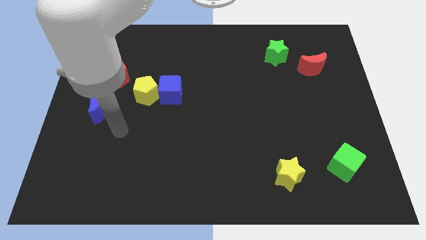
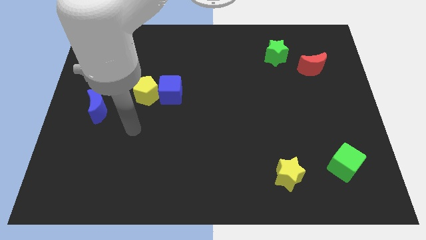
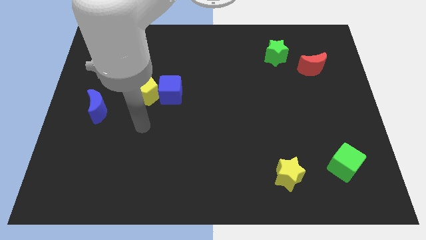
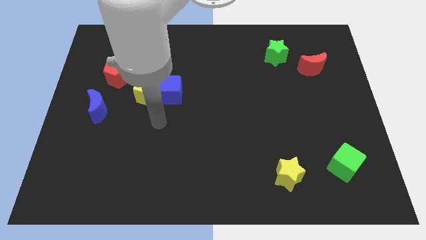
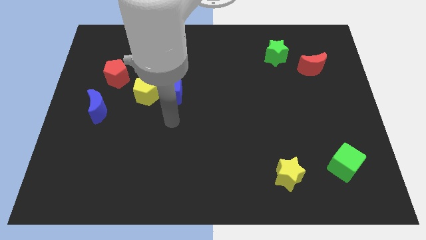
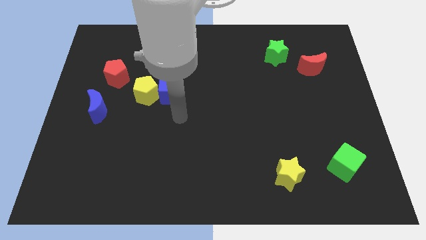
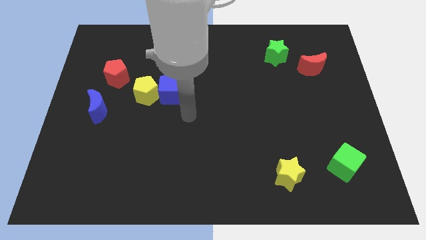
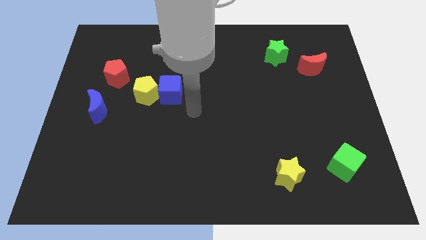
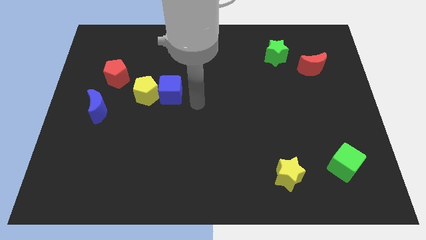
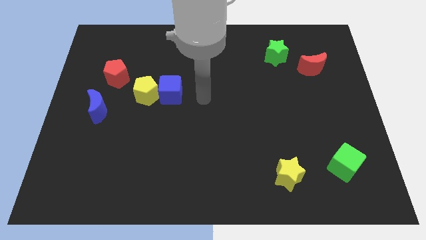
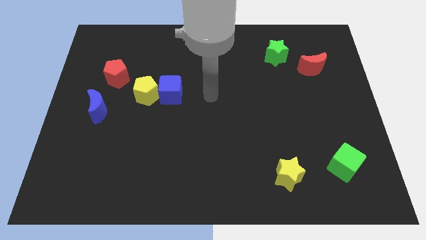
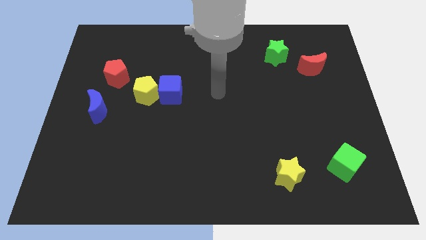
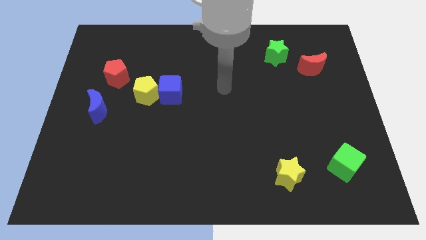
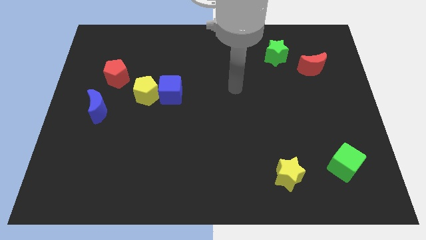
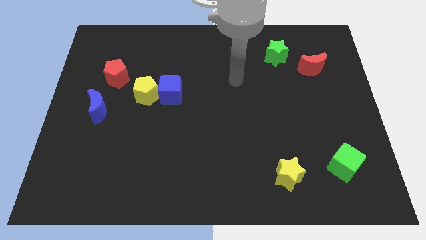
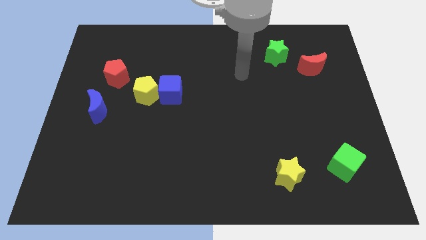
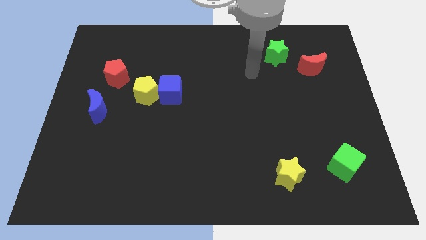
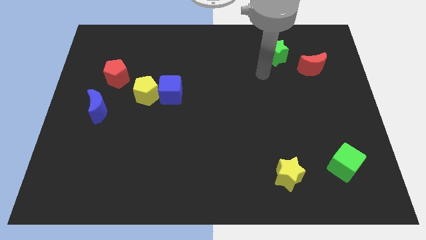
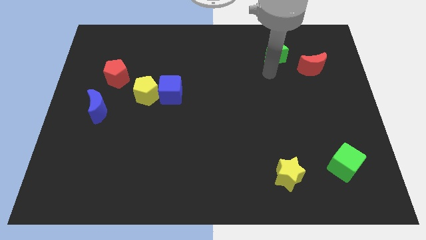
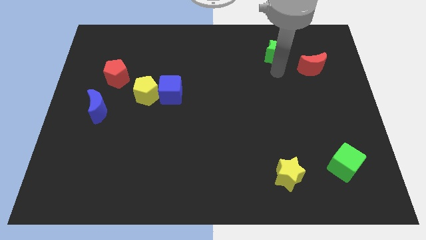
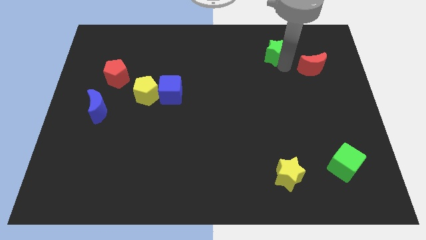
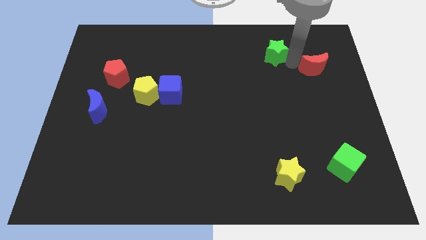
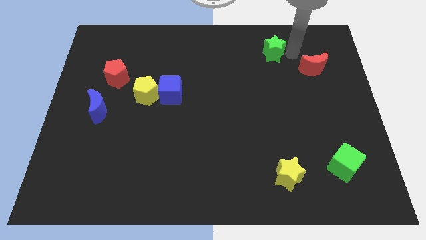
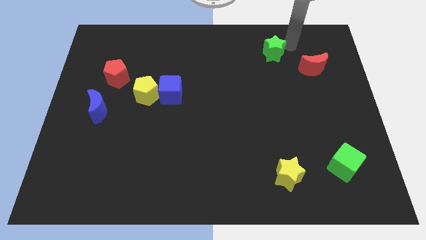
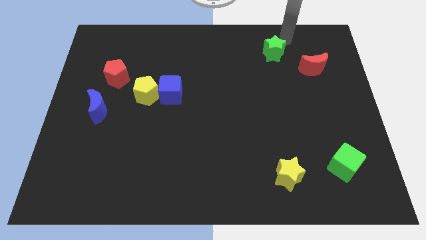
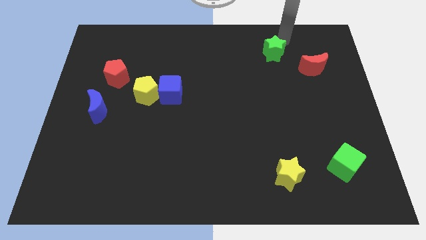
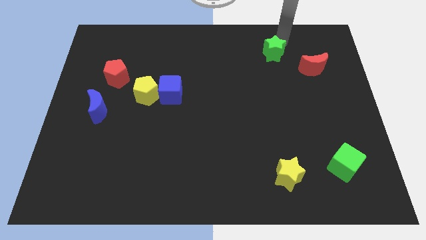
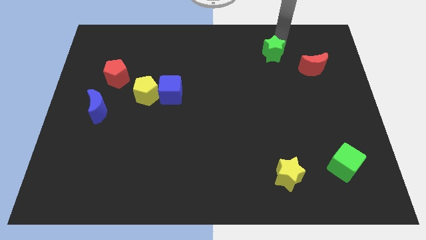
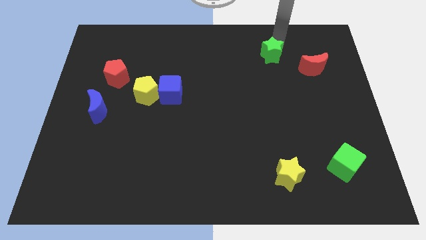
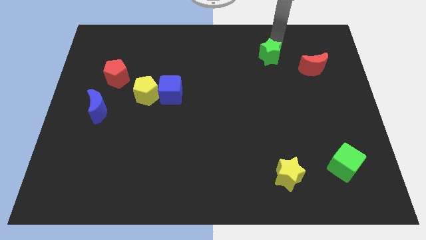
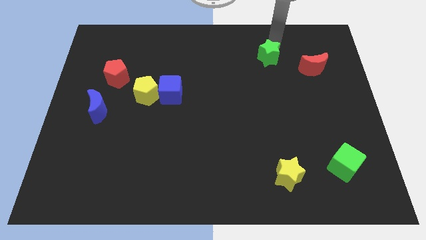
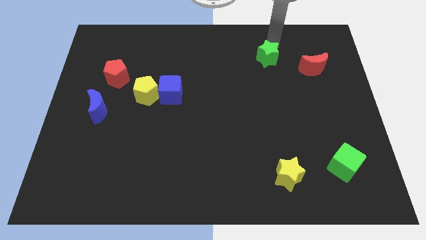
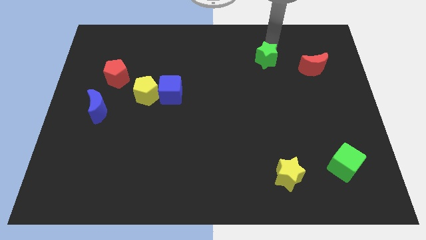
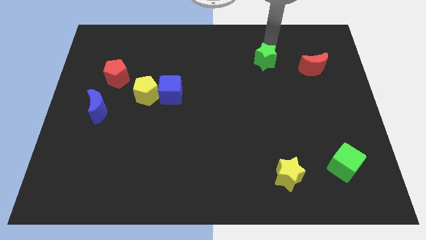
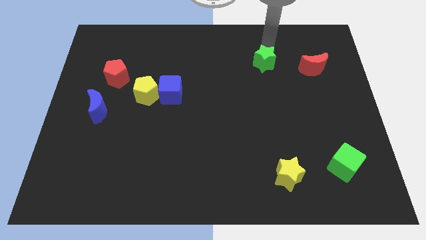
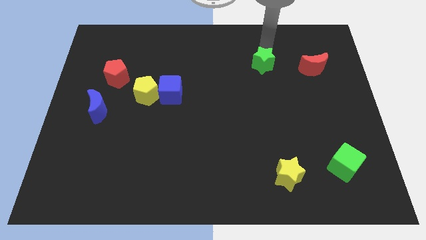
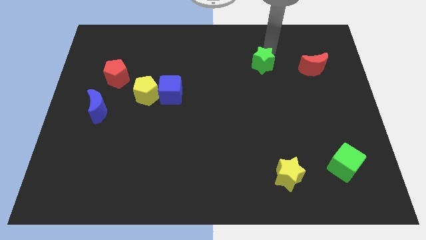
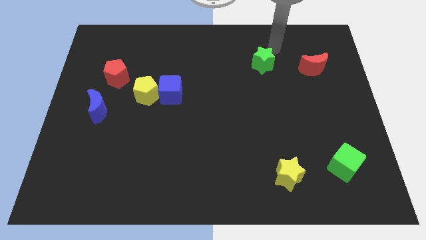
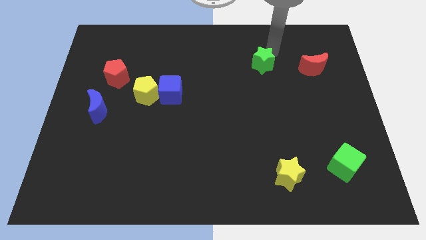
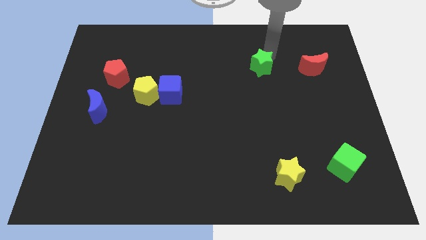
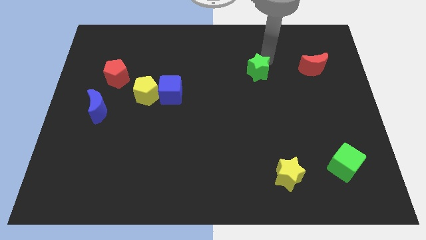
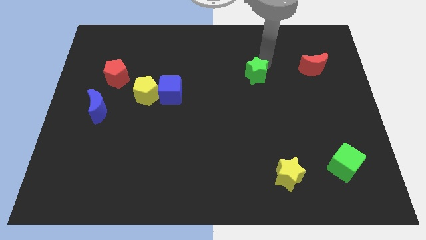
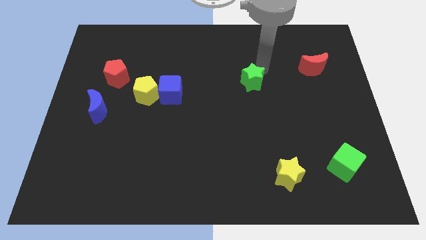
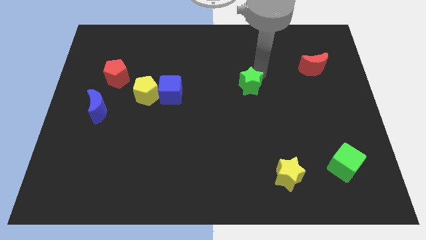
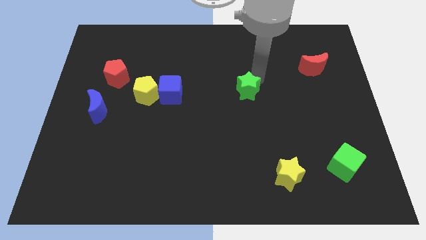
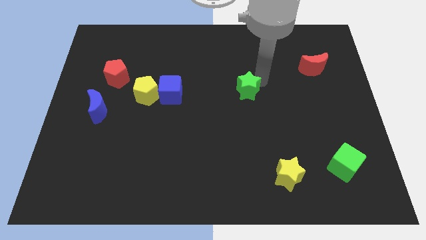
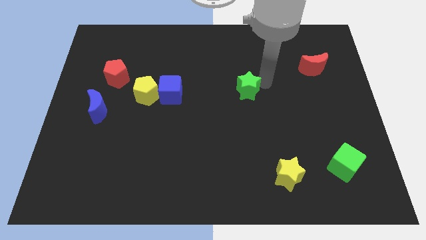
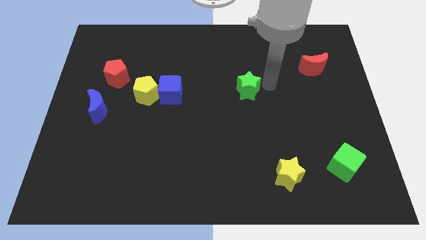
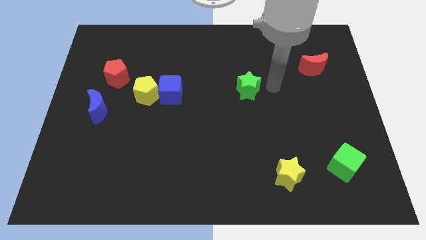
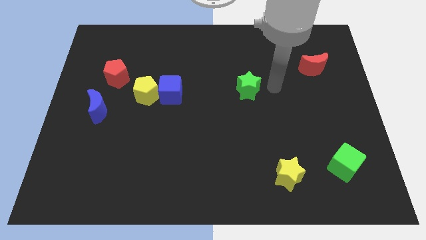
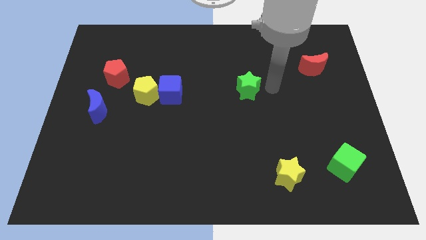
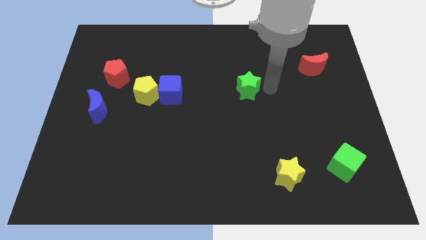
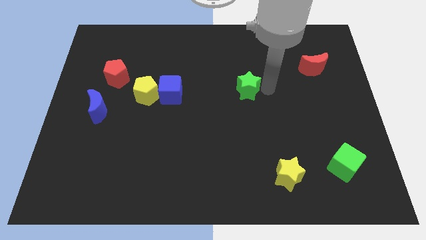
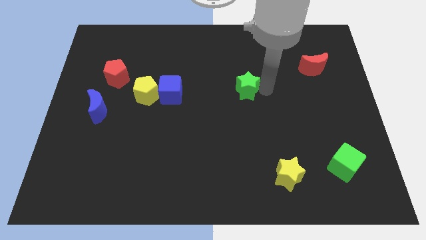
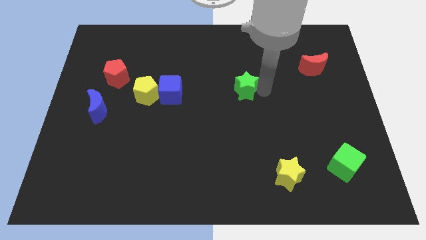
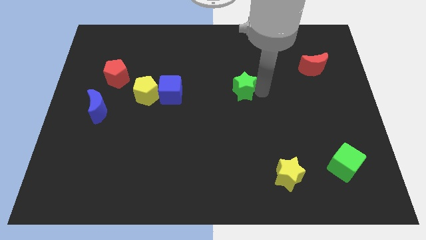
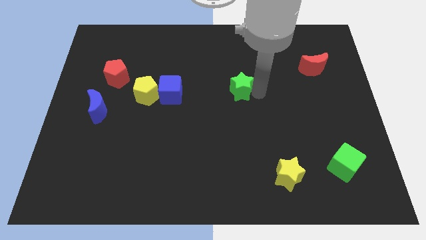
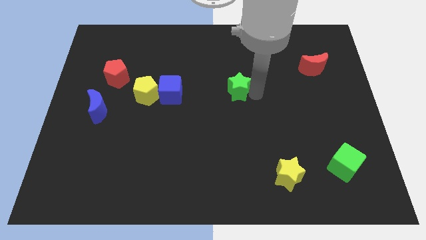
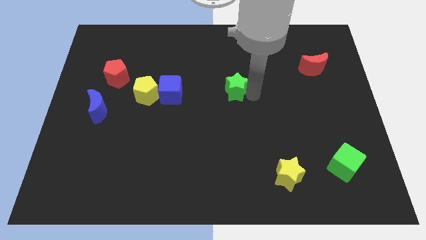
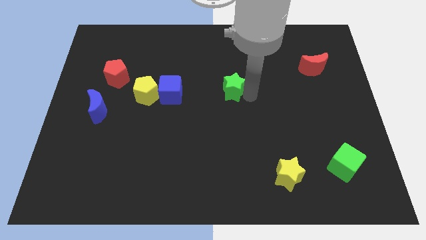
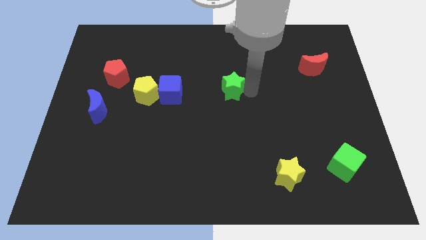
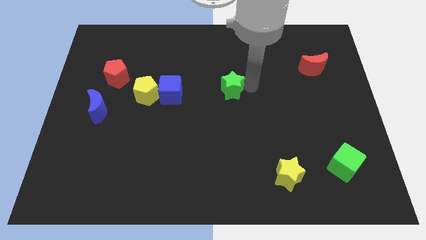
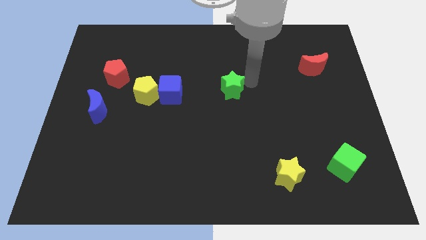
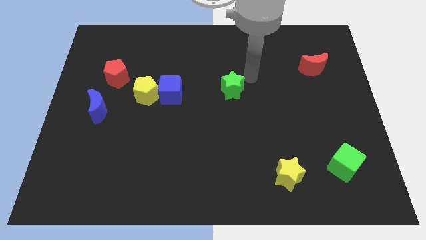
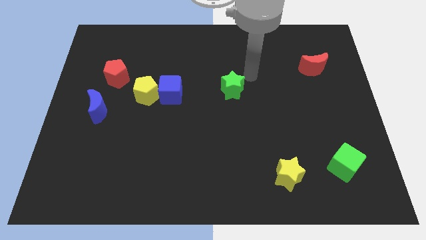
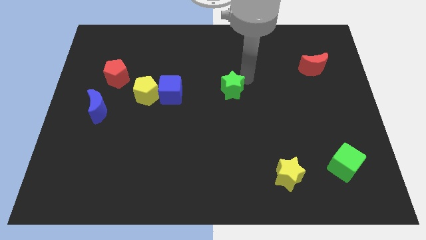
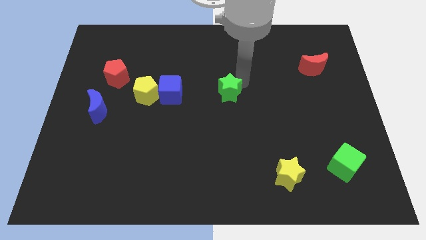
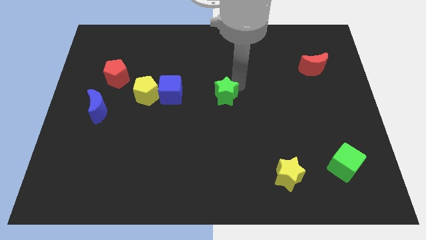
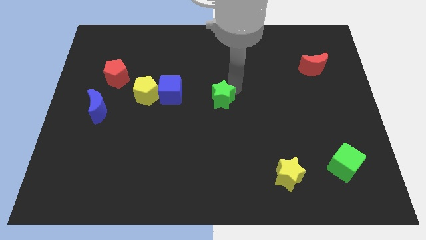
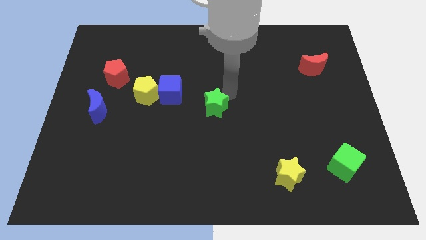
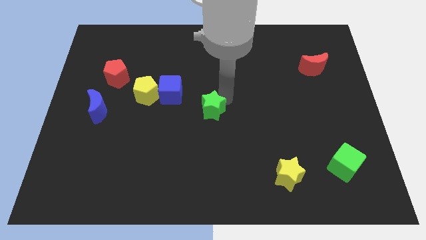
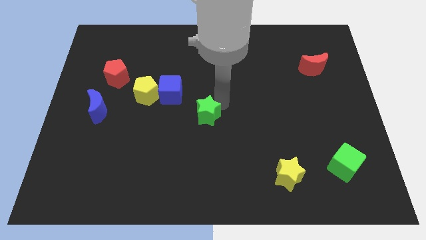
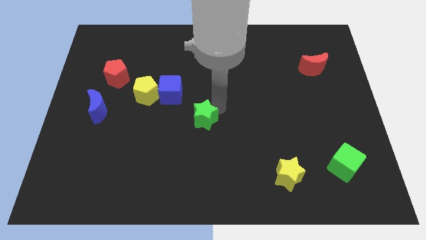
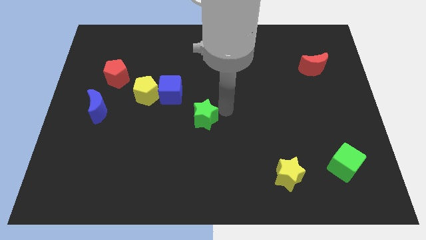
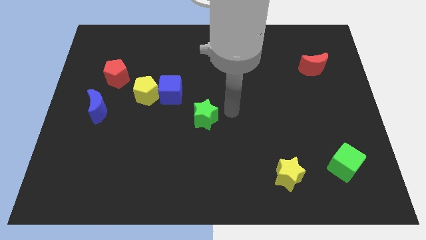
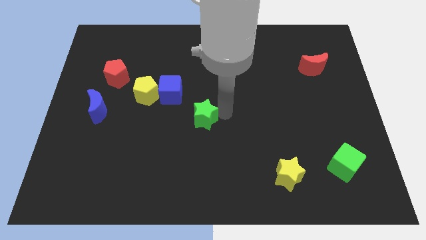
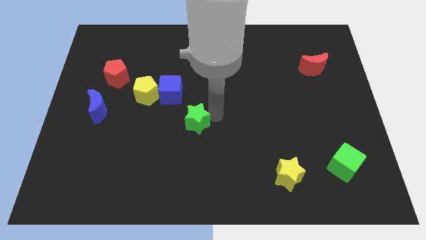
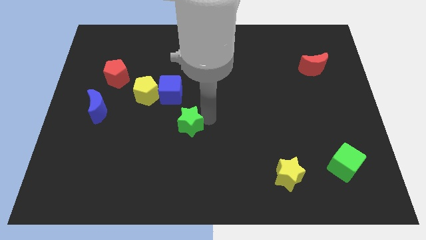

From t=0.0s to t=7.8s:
slide the green star to the bottom of the blue cube
